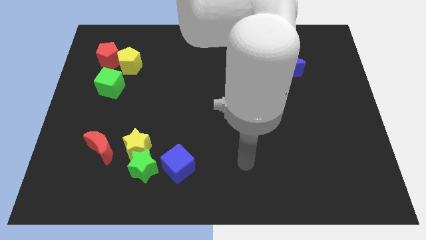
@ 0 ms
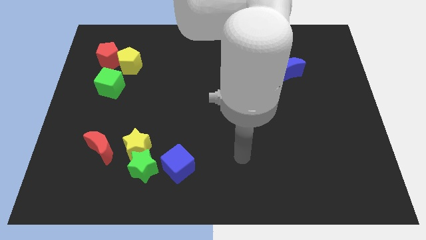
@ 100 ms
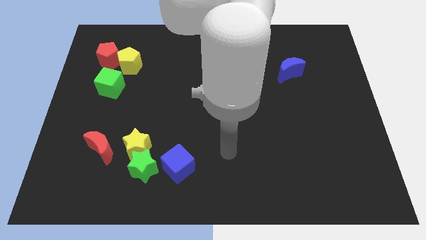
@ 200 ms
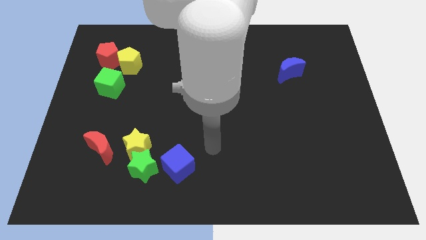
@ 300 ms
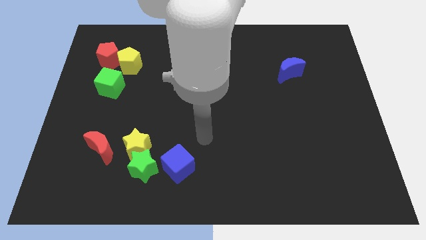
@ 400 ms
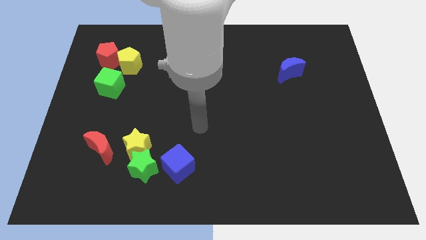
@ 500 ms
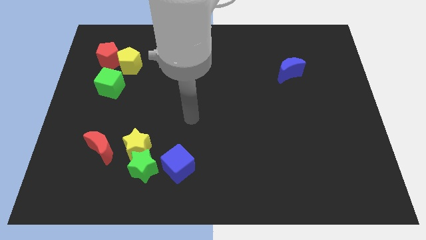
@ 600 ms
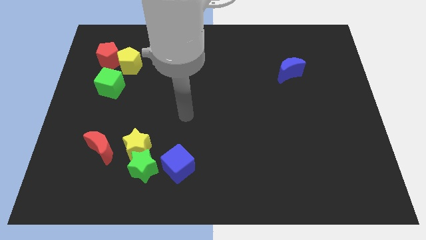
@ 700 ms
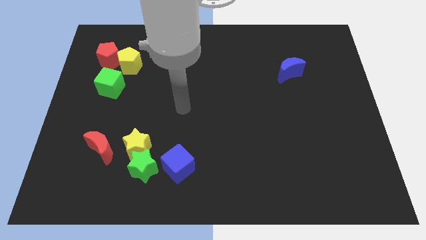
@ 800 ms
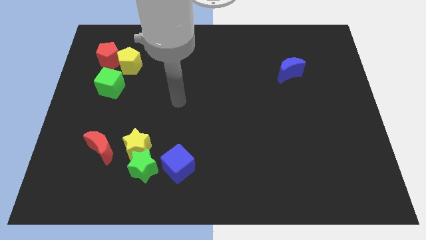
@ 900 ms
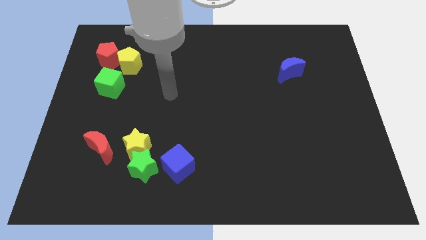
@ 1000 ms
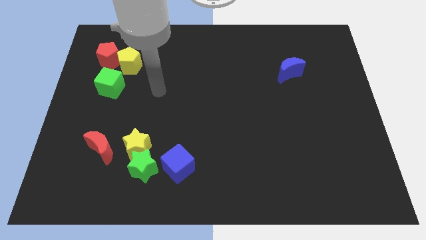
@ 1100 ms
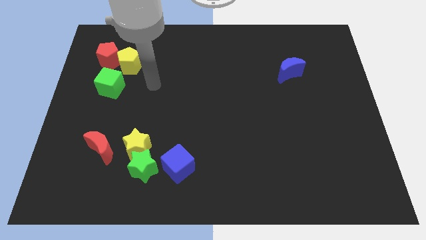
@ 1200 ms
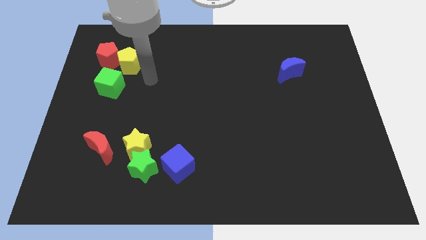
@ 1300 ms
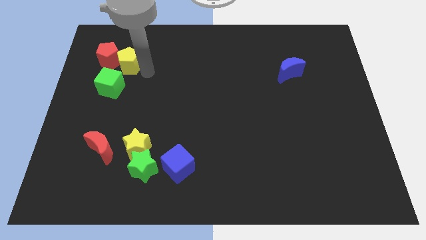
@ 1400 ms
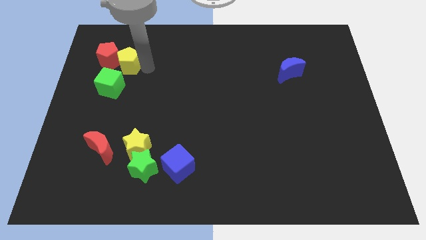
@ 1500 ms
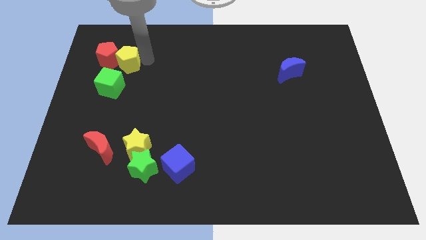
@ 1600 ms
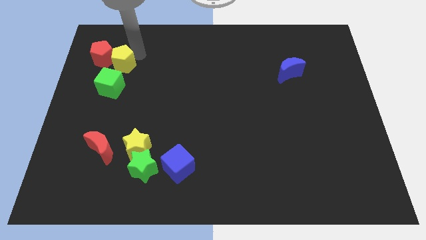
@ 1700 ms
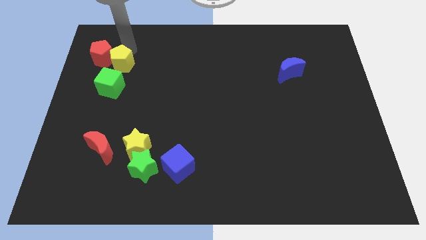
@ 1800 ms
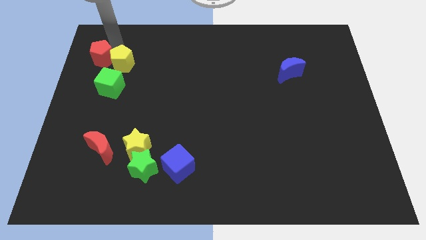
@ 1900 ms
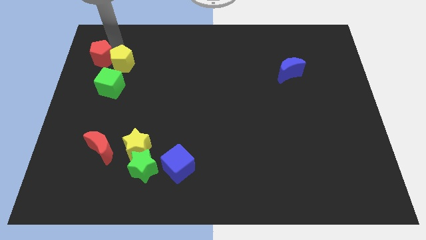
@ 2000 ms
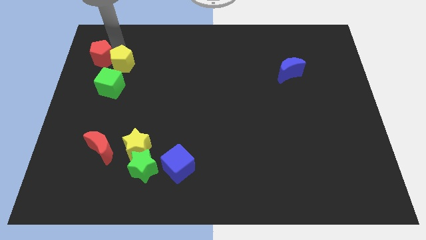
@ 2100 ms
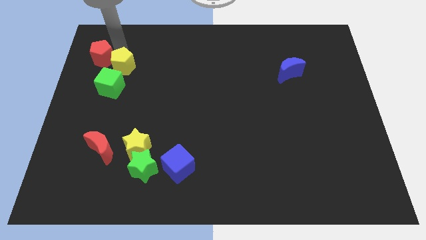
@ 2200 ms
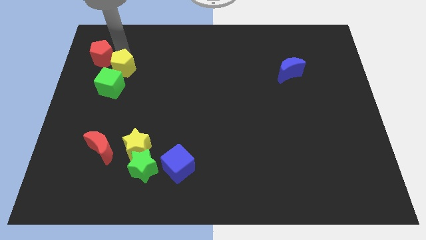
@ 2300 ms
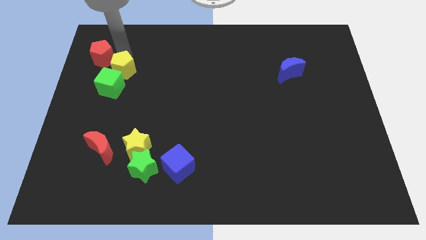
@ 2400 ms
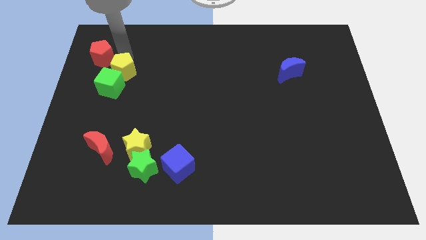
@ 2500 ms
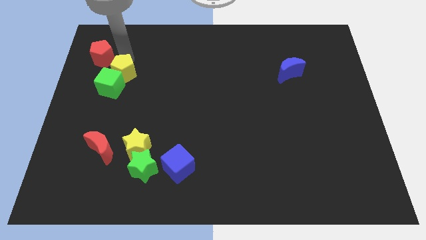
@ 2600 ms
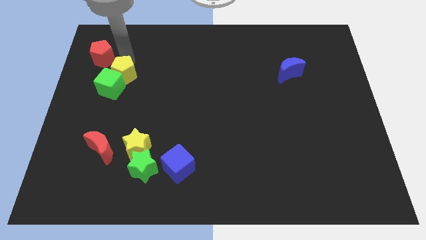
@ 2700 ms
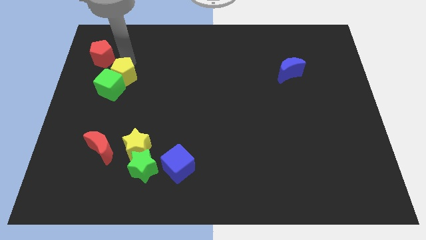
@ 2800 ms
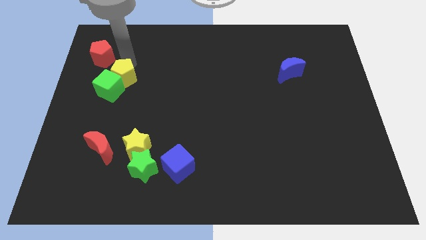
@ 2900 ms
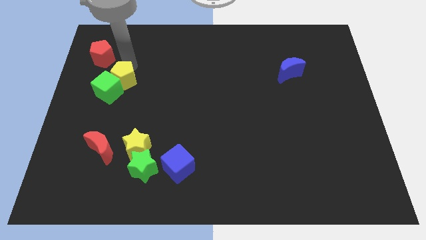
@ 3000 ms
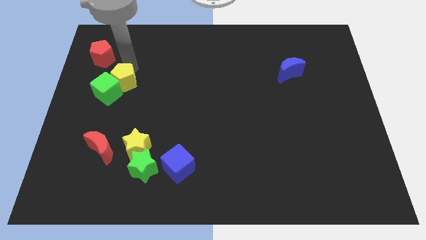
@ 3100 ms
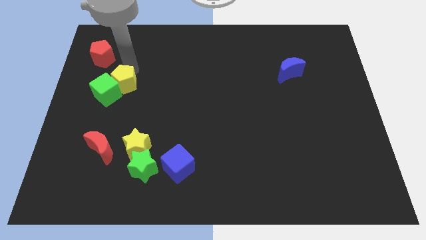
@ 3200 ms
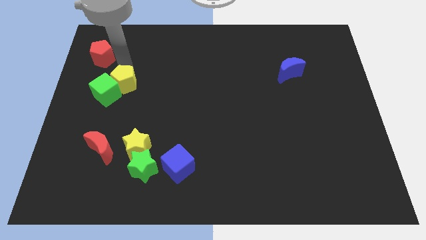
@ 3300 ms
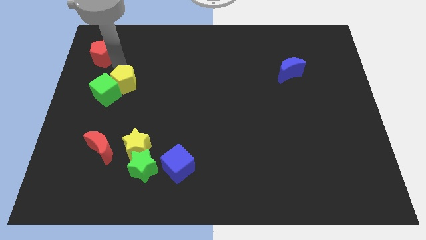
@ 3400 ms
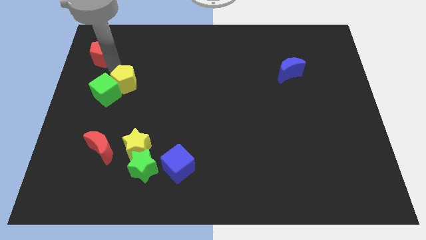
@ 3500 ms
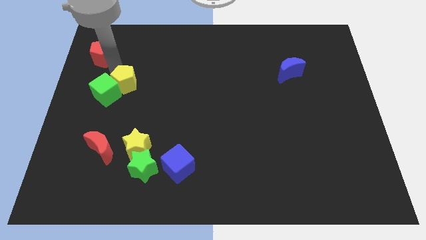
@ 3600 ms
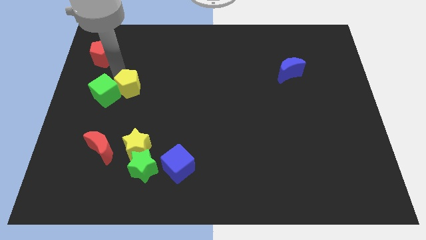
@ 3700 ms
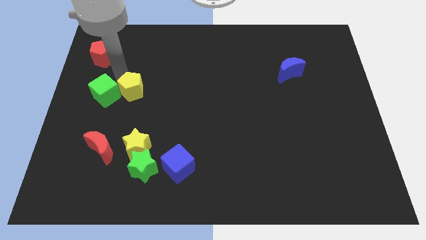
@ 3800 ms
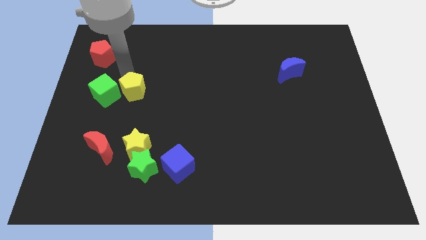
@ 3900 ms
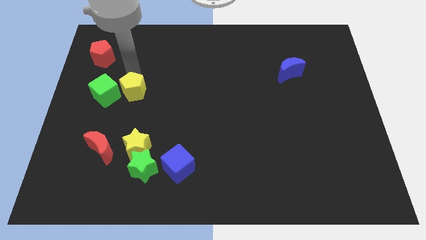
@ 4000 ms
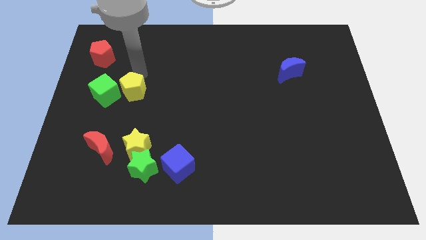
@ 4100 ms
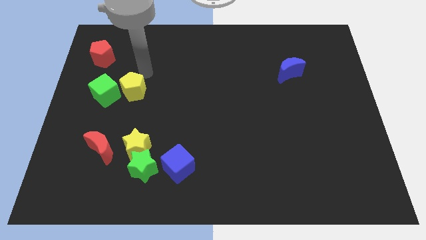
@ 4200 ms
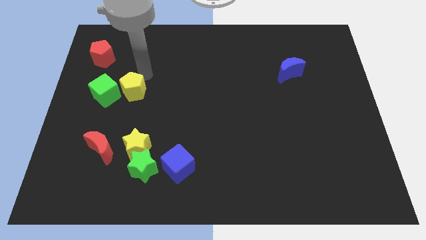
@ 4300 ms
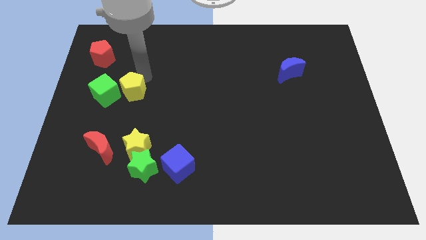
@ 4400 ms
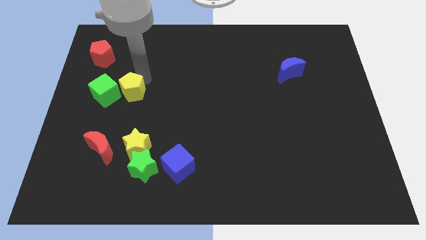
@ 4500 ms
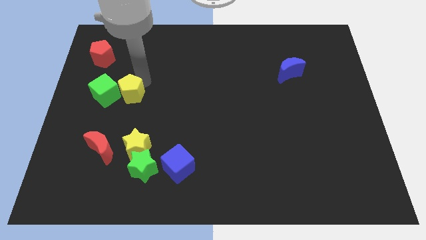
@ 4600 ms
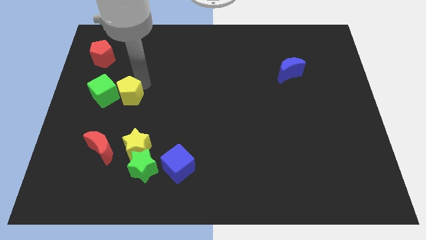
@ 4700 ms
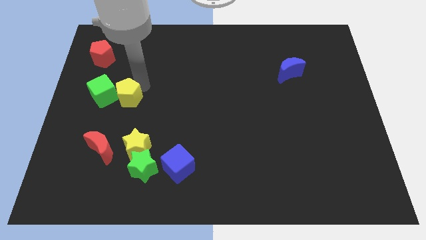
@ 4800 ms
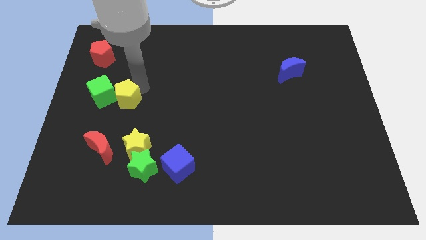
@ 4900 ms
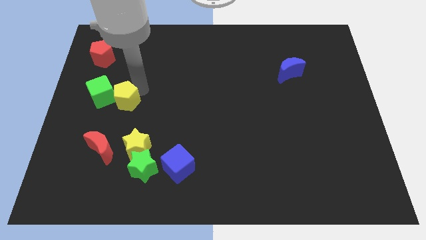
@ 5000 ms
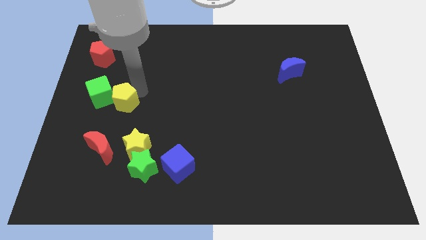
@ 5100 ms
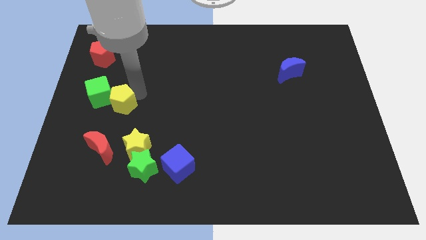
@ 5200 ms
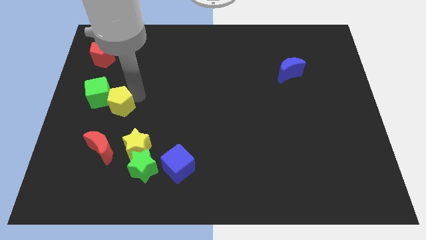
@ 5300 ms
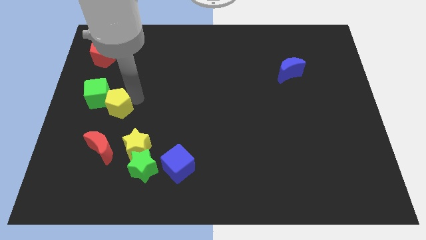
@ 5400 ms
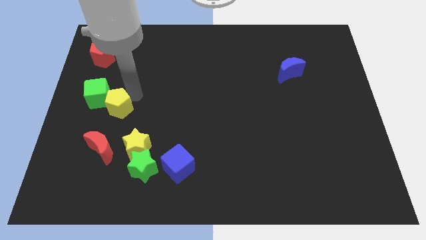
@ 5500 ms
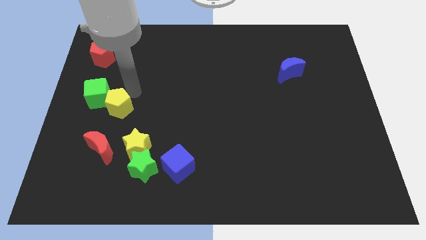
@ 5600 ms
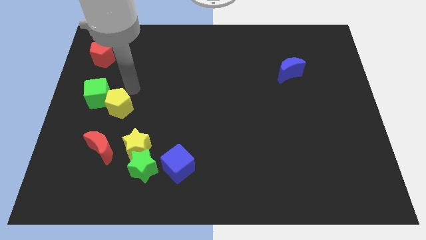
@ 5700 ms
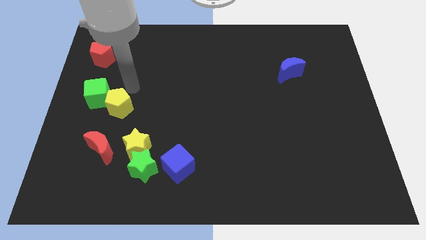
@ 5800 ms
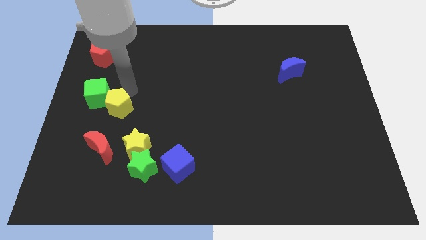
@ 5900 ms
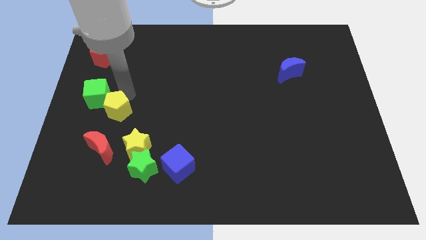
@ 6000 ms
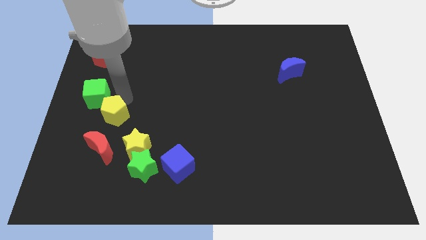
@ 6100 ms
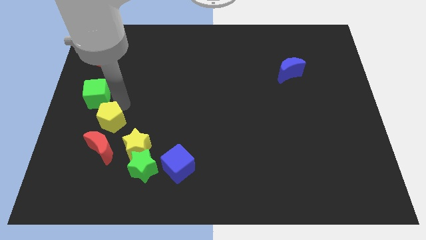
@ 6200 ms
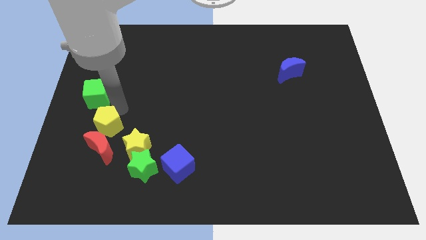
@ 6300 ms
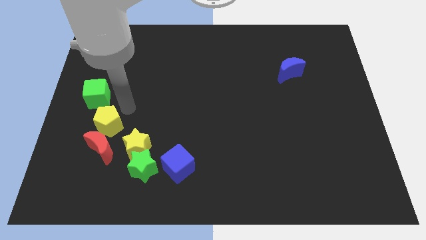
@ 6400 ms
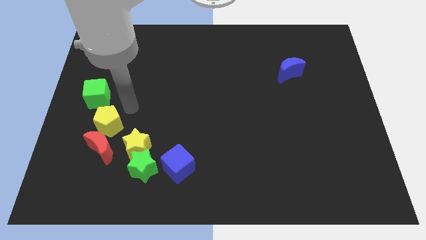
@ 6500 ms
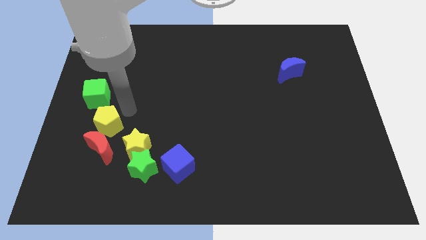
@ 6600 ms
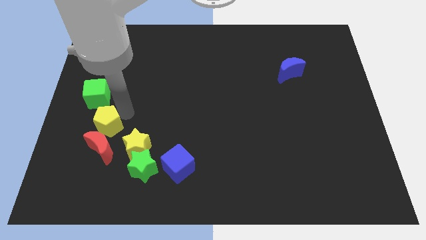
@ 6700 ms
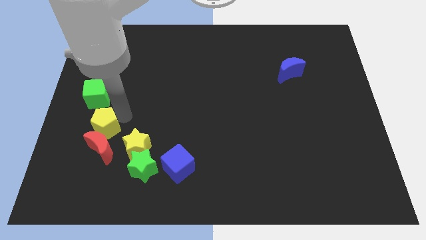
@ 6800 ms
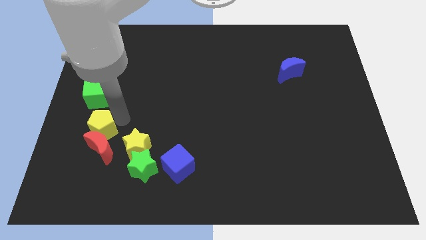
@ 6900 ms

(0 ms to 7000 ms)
move the yellow pentagon down

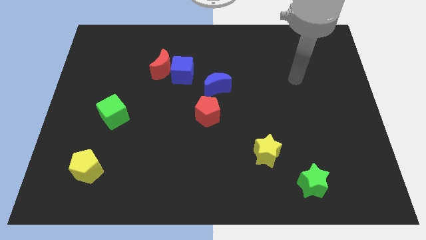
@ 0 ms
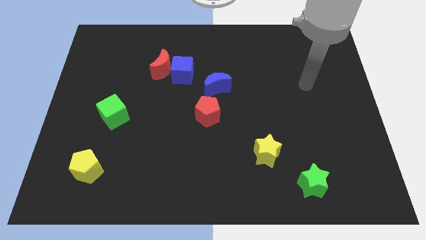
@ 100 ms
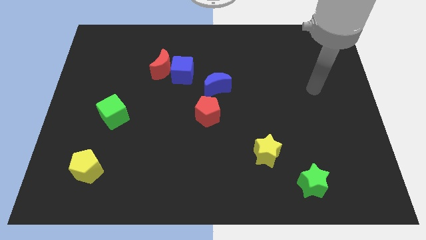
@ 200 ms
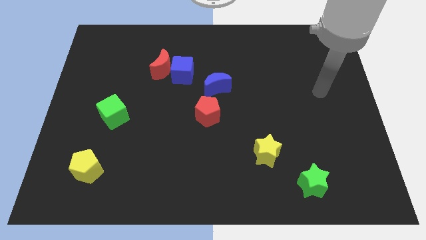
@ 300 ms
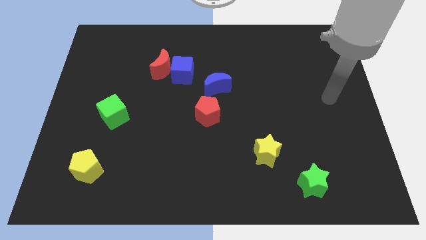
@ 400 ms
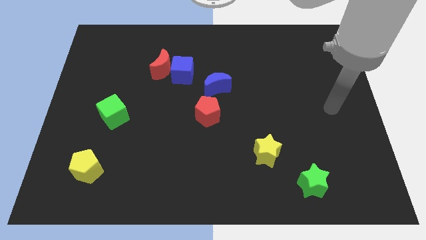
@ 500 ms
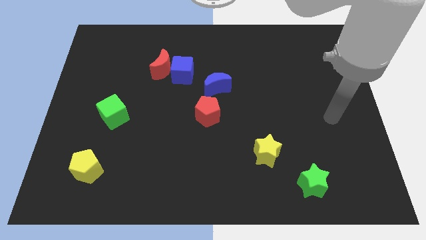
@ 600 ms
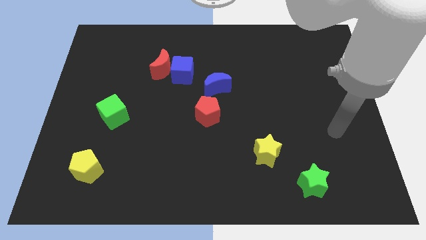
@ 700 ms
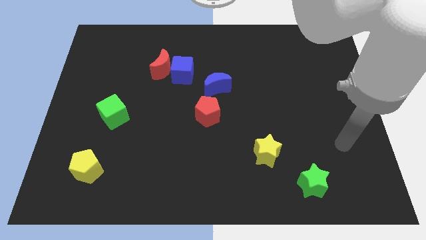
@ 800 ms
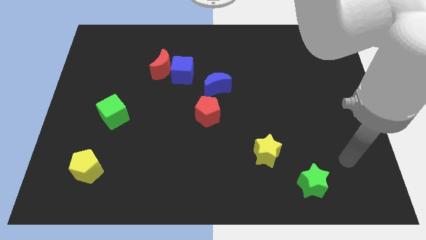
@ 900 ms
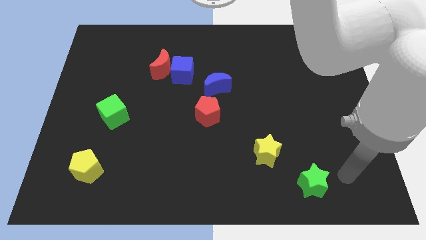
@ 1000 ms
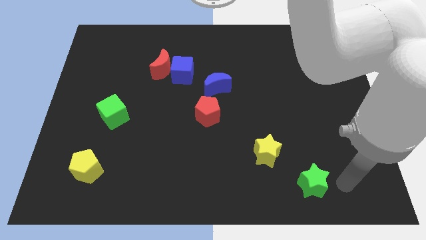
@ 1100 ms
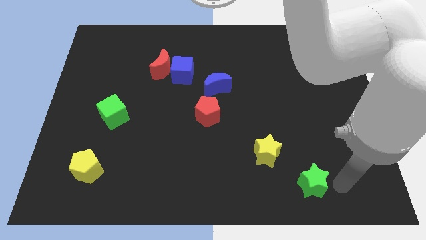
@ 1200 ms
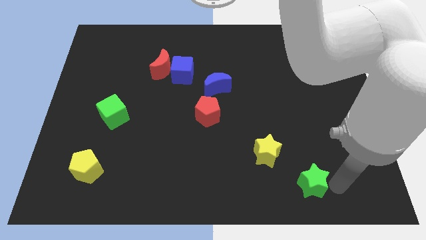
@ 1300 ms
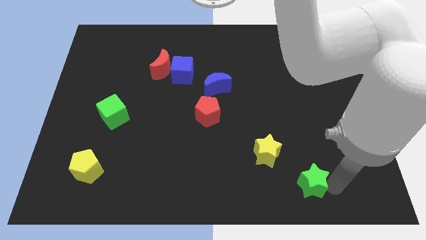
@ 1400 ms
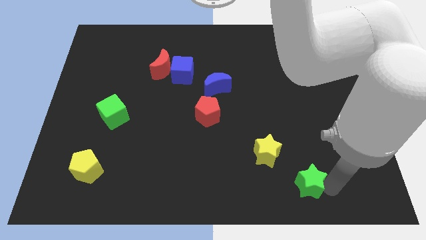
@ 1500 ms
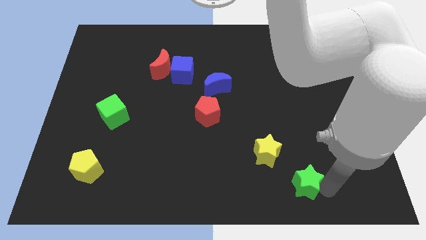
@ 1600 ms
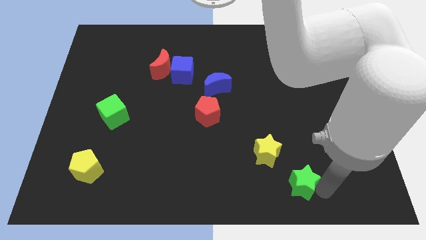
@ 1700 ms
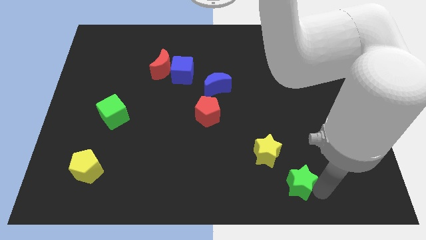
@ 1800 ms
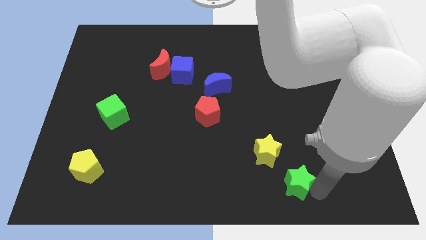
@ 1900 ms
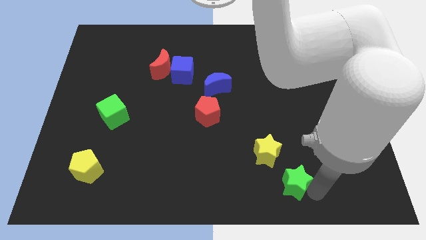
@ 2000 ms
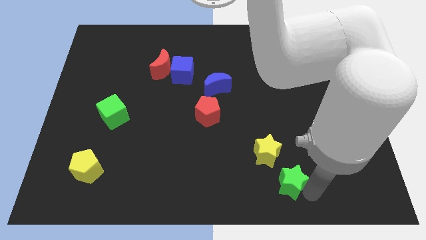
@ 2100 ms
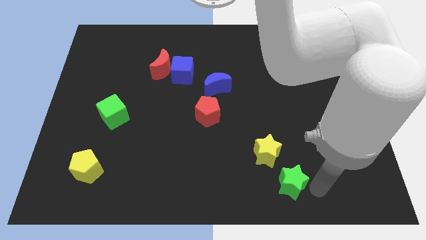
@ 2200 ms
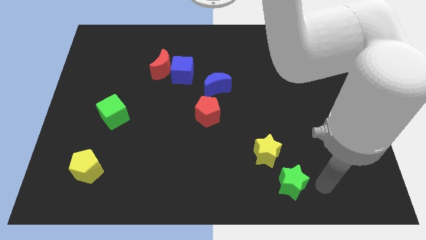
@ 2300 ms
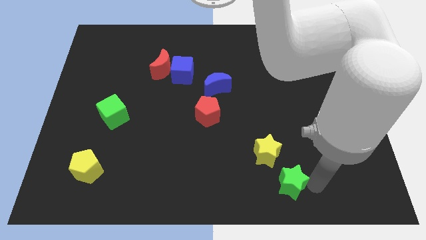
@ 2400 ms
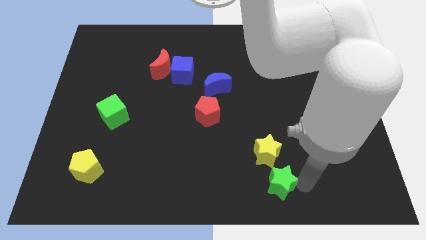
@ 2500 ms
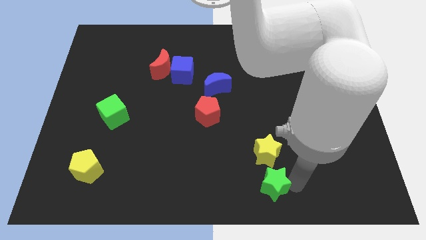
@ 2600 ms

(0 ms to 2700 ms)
slide the green star left a little bit
